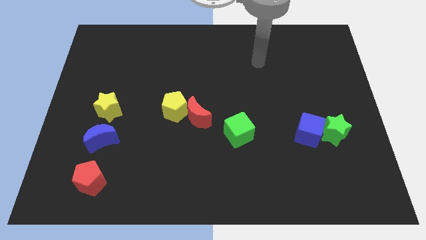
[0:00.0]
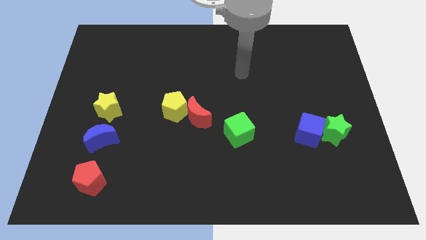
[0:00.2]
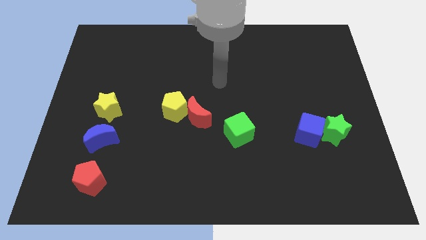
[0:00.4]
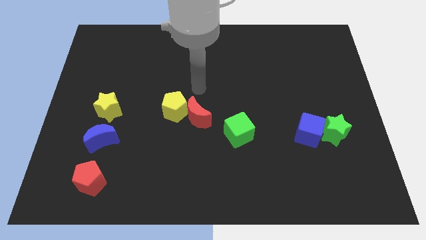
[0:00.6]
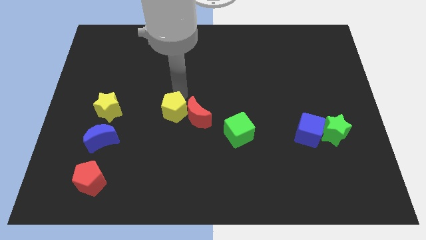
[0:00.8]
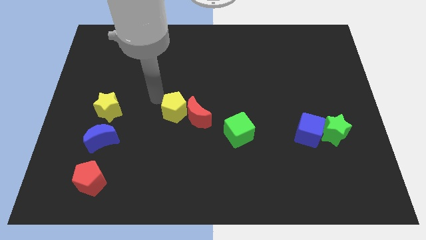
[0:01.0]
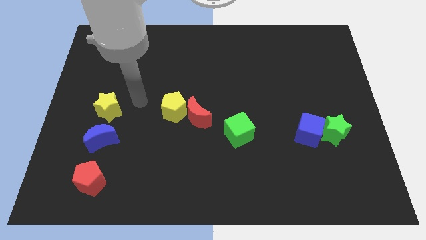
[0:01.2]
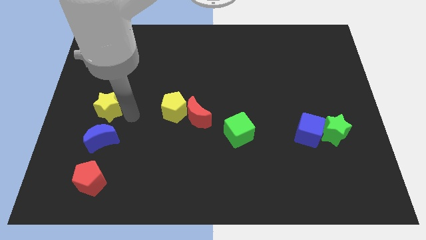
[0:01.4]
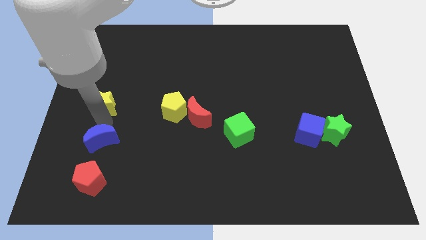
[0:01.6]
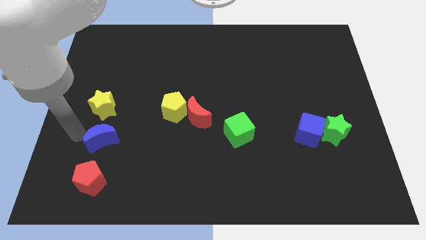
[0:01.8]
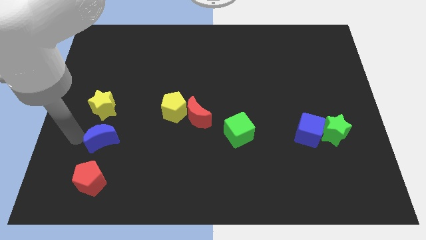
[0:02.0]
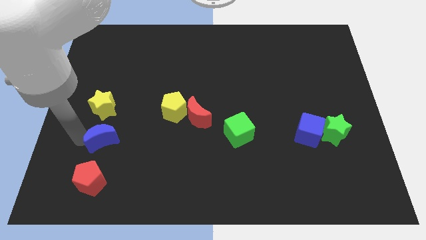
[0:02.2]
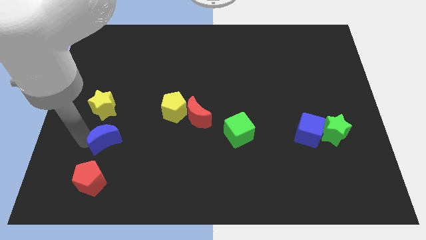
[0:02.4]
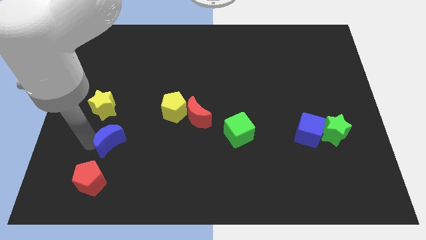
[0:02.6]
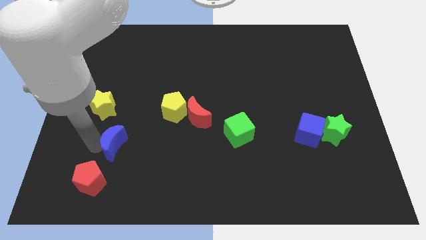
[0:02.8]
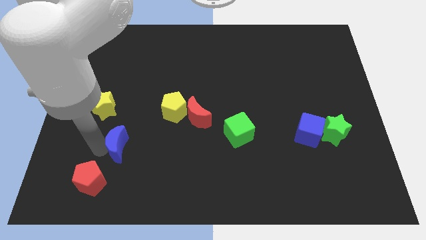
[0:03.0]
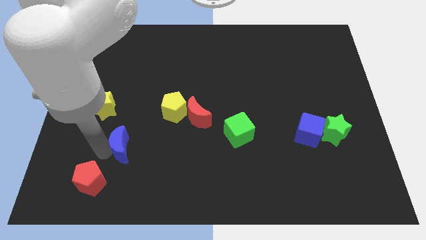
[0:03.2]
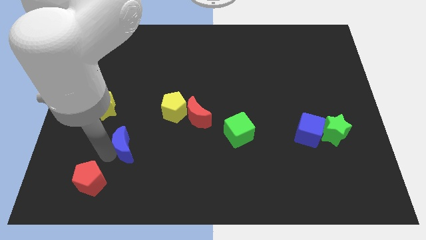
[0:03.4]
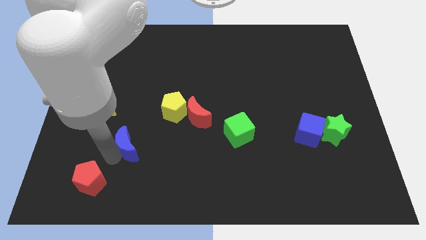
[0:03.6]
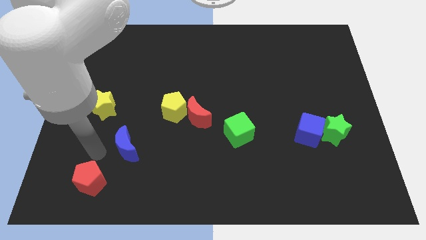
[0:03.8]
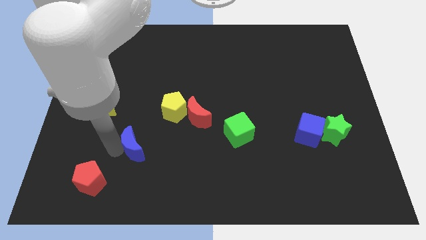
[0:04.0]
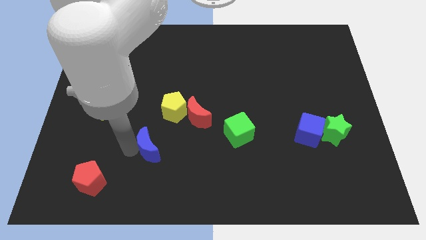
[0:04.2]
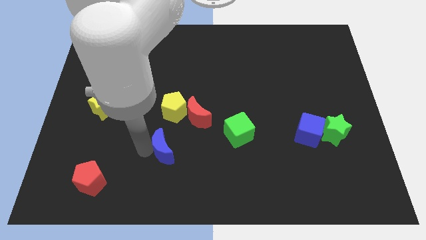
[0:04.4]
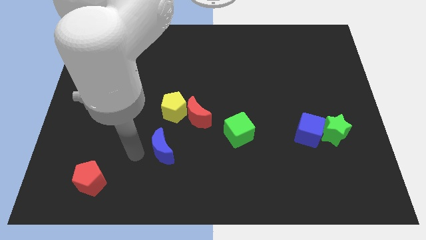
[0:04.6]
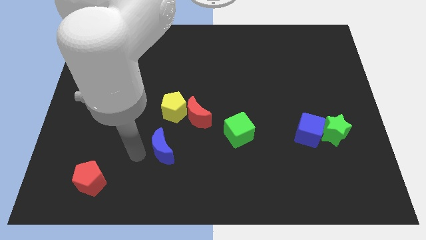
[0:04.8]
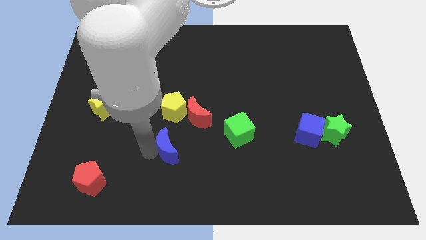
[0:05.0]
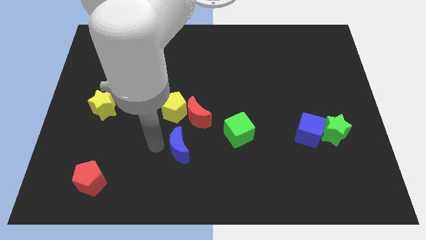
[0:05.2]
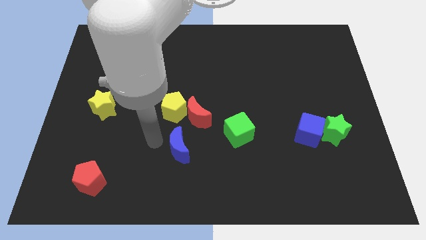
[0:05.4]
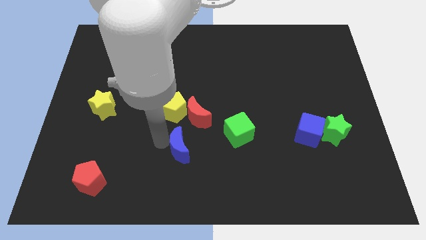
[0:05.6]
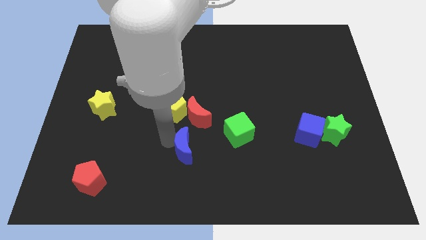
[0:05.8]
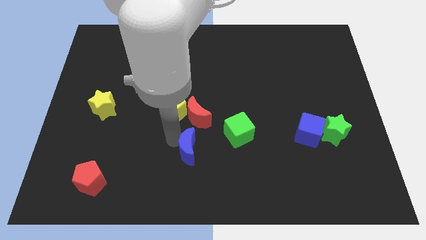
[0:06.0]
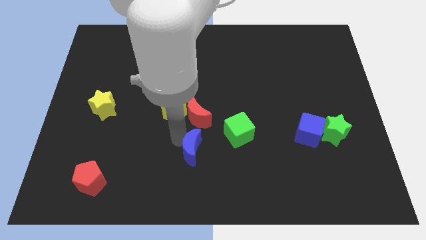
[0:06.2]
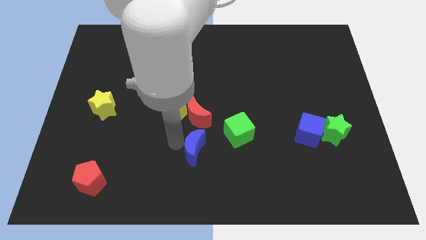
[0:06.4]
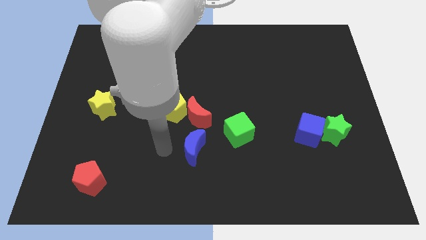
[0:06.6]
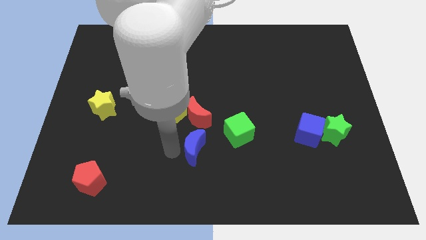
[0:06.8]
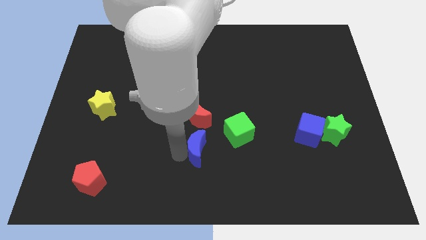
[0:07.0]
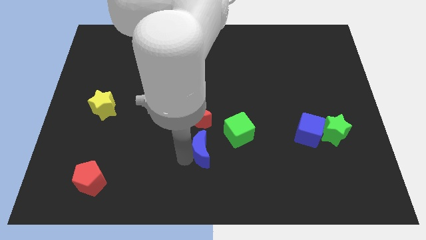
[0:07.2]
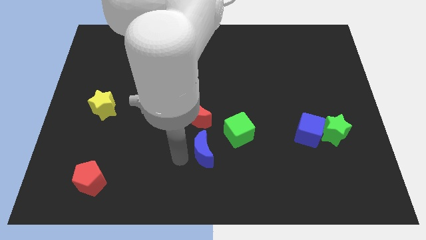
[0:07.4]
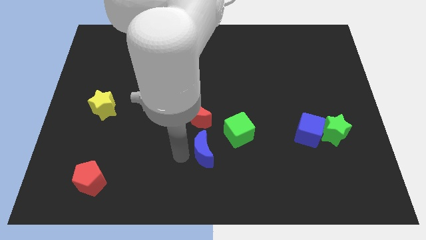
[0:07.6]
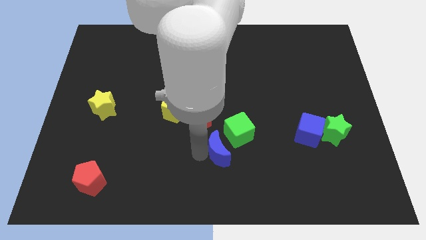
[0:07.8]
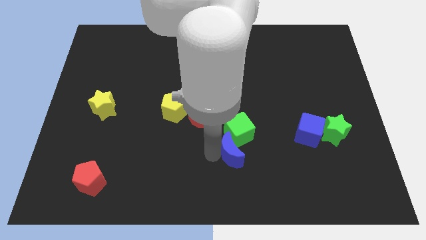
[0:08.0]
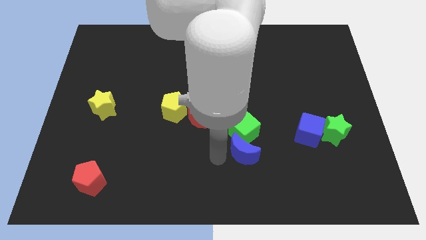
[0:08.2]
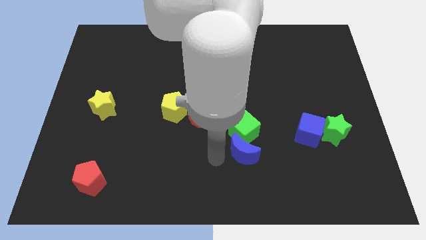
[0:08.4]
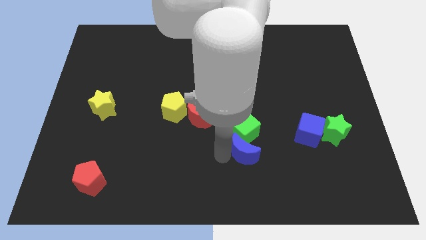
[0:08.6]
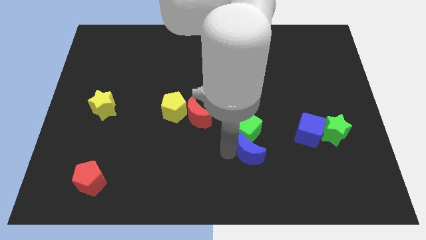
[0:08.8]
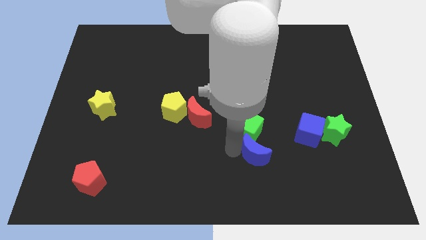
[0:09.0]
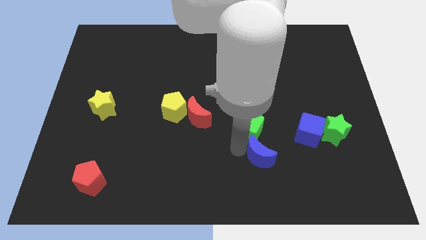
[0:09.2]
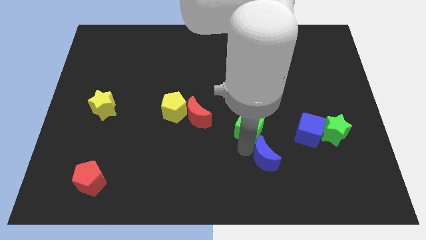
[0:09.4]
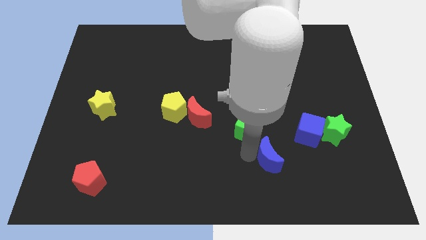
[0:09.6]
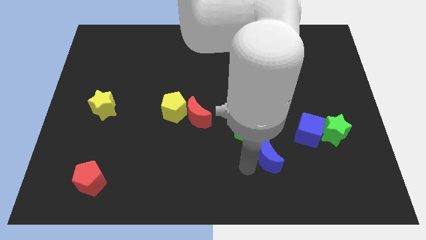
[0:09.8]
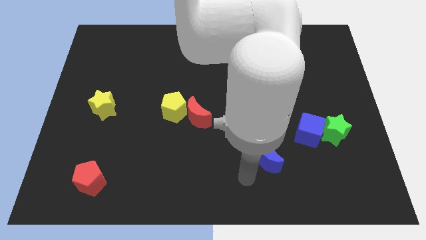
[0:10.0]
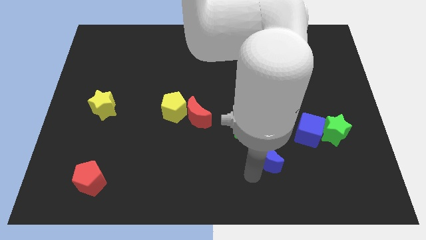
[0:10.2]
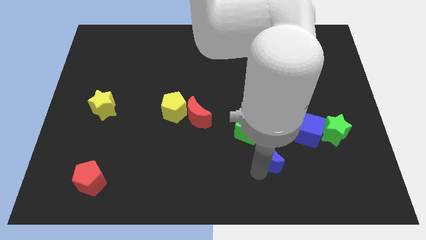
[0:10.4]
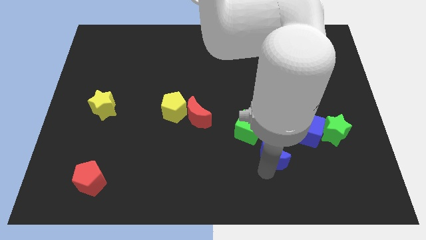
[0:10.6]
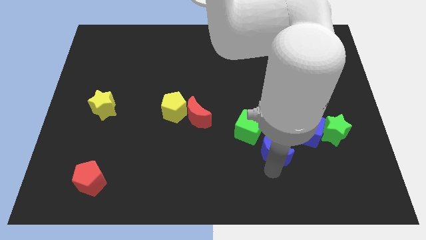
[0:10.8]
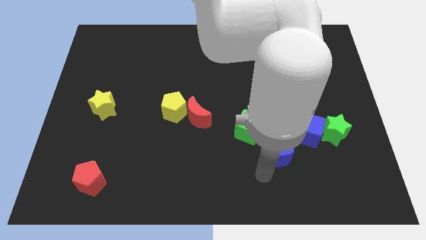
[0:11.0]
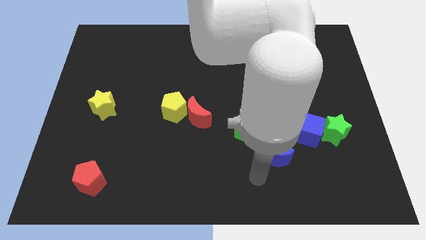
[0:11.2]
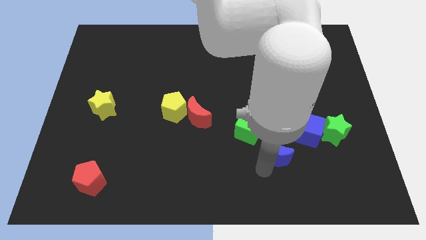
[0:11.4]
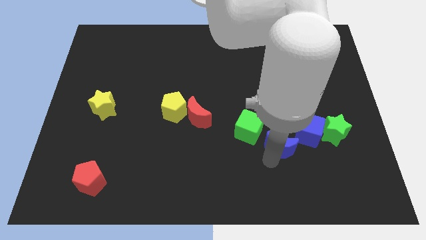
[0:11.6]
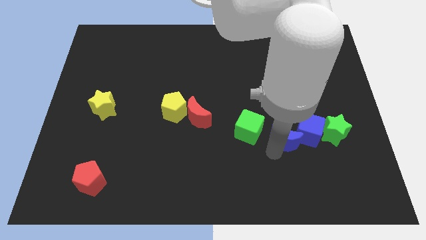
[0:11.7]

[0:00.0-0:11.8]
push the blue moon to the blue cube

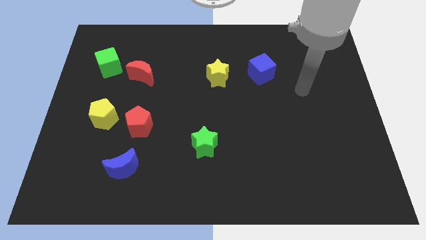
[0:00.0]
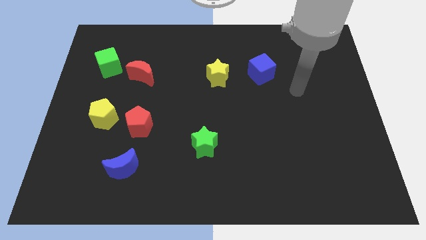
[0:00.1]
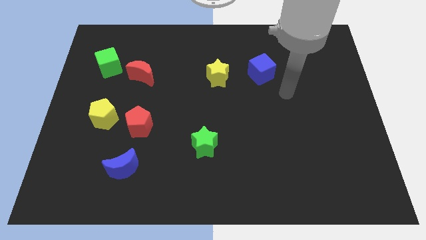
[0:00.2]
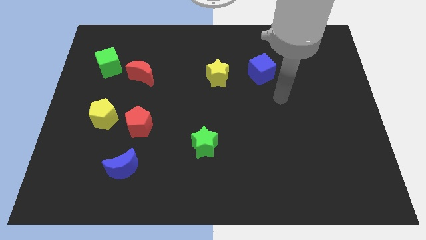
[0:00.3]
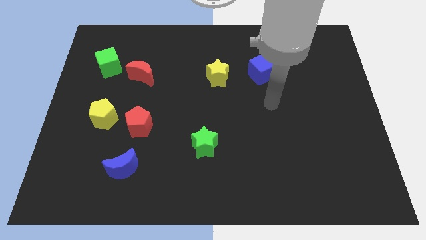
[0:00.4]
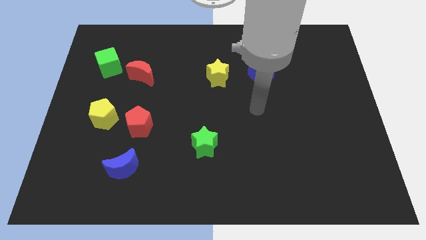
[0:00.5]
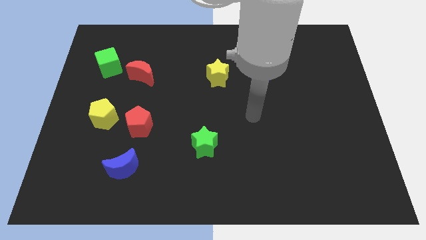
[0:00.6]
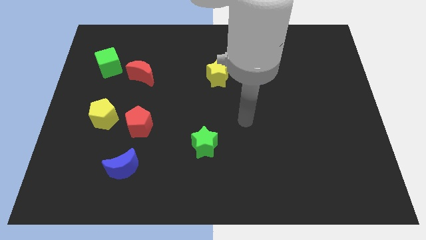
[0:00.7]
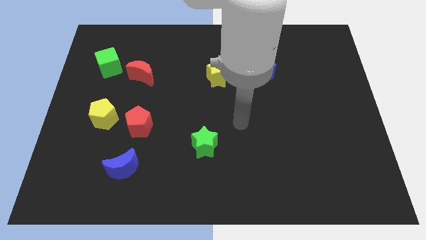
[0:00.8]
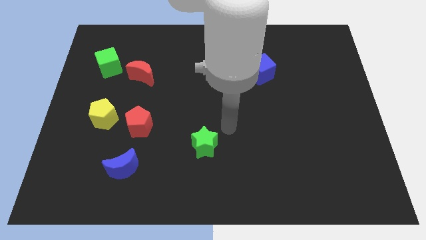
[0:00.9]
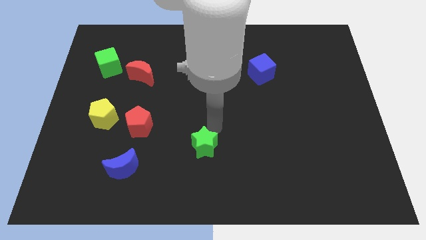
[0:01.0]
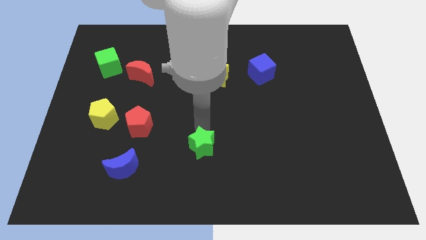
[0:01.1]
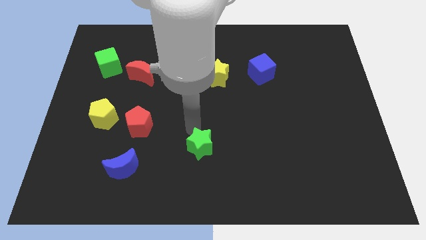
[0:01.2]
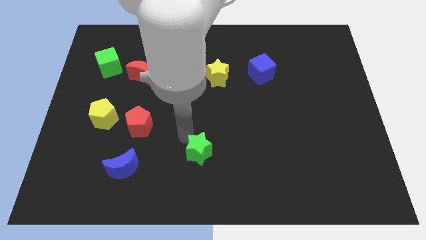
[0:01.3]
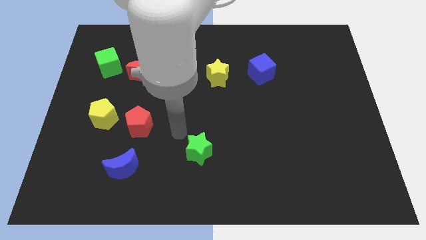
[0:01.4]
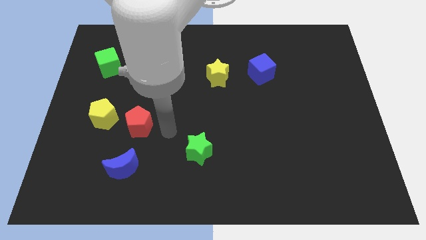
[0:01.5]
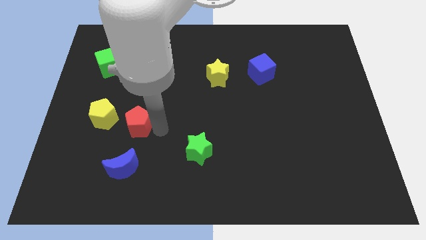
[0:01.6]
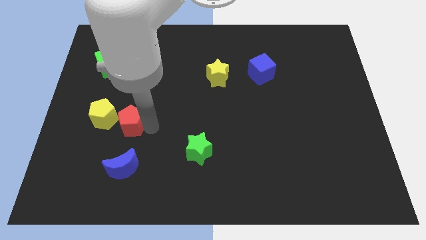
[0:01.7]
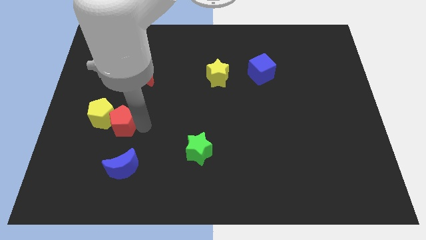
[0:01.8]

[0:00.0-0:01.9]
slide the red pentagon close to the yellow pentagon
